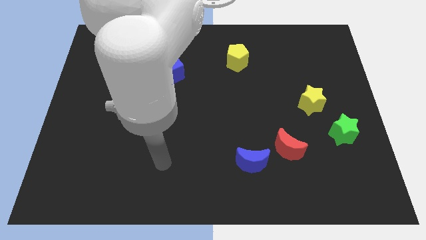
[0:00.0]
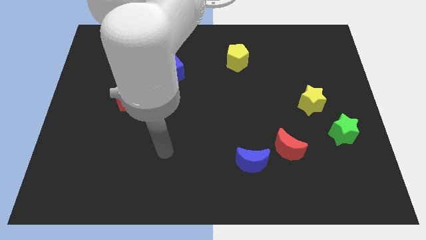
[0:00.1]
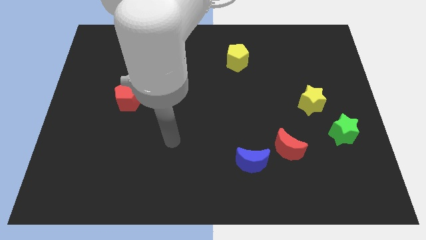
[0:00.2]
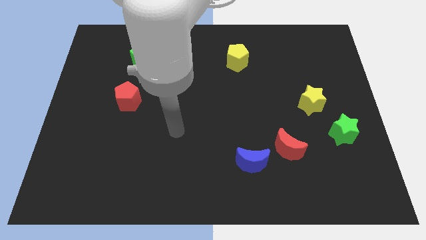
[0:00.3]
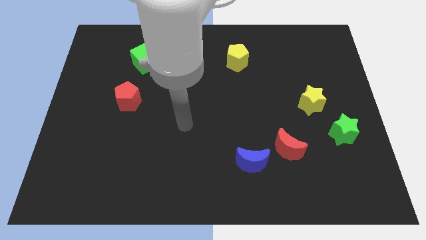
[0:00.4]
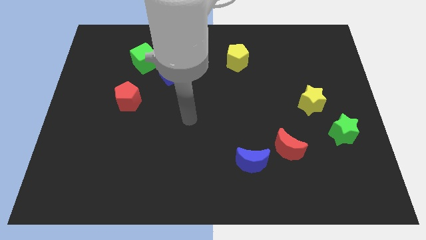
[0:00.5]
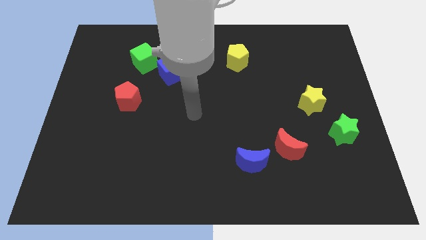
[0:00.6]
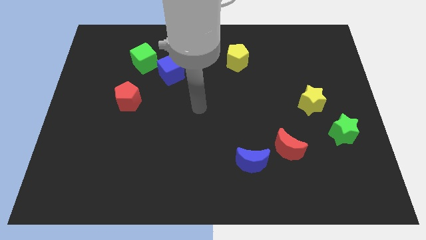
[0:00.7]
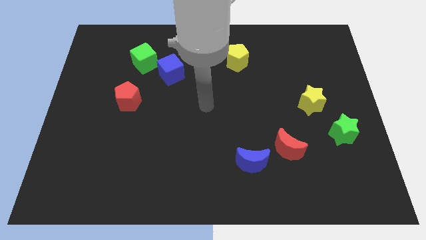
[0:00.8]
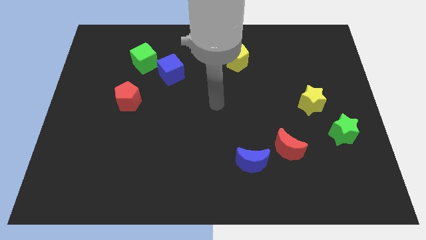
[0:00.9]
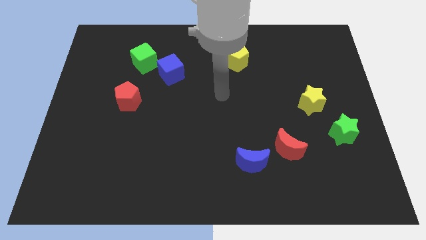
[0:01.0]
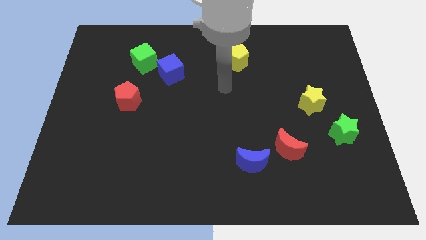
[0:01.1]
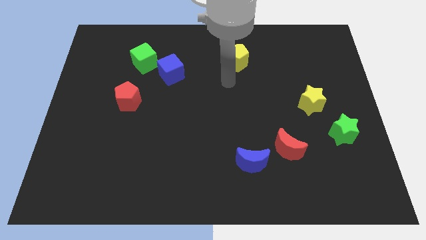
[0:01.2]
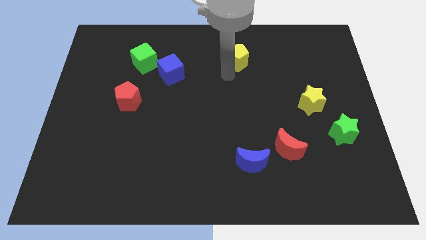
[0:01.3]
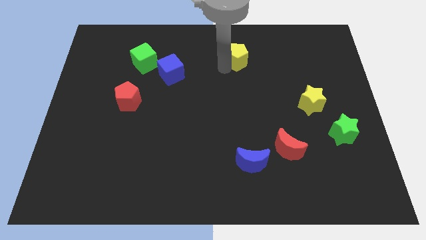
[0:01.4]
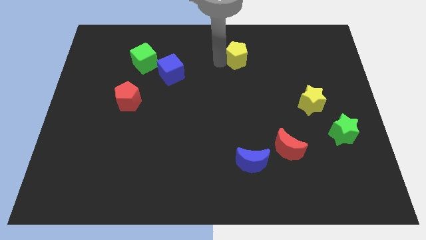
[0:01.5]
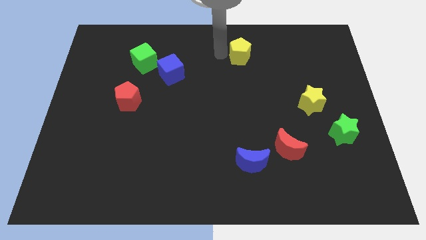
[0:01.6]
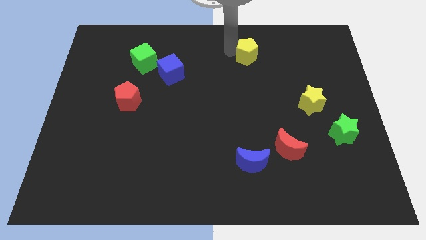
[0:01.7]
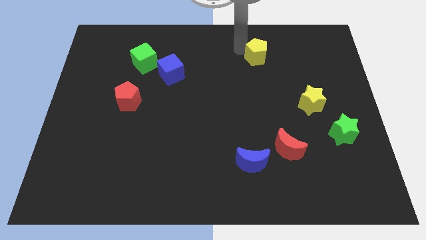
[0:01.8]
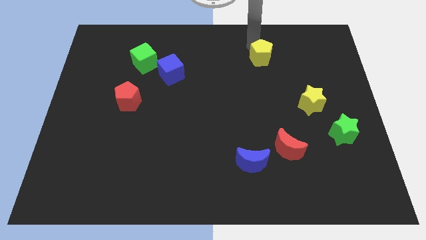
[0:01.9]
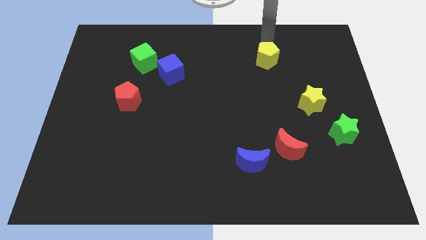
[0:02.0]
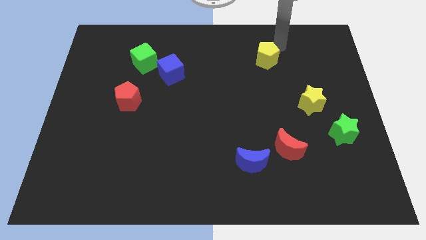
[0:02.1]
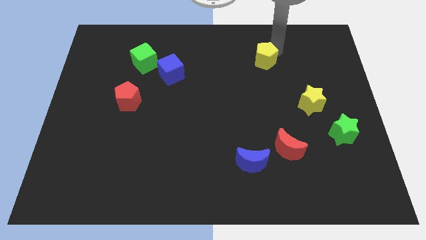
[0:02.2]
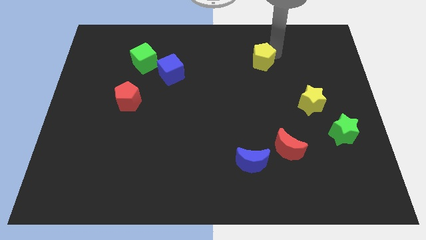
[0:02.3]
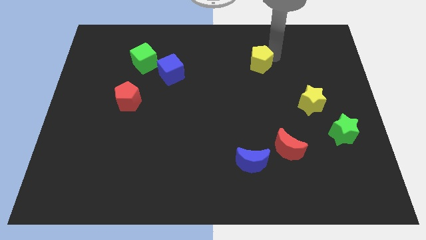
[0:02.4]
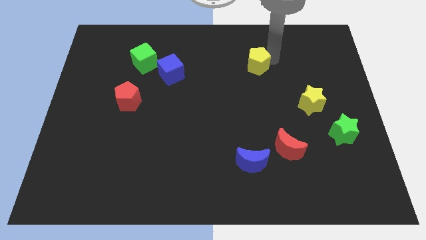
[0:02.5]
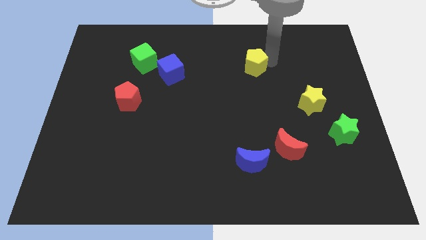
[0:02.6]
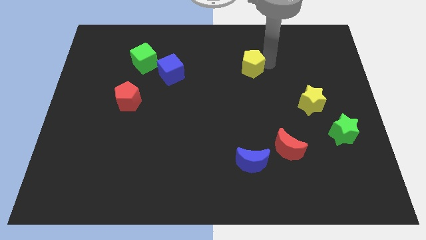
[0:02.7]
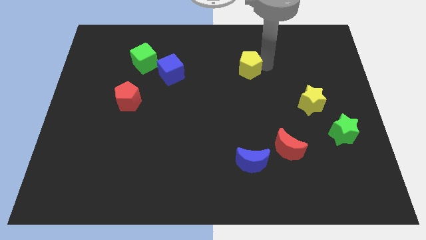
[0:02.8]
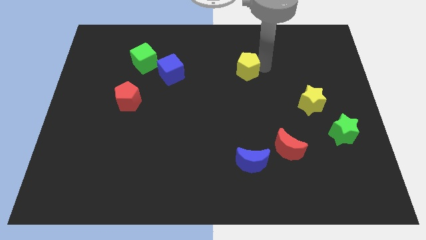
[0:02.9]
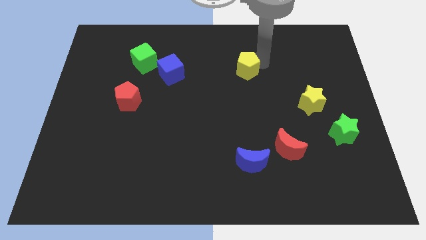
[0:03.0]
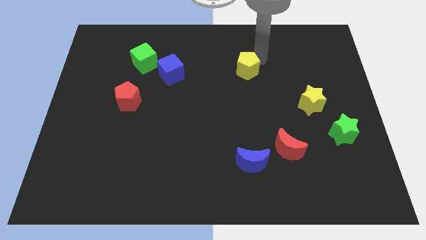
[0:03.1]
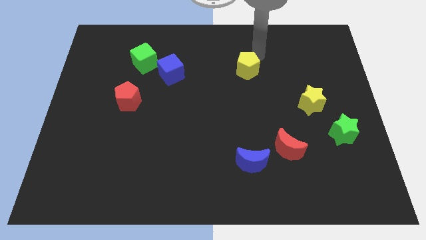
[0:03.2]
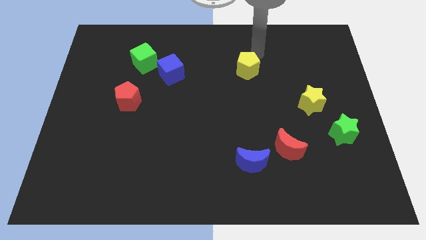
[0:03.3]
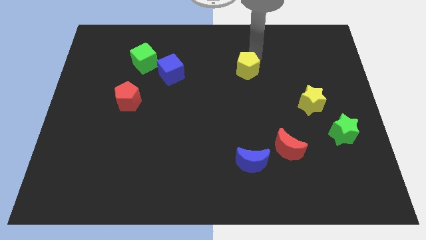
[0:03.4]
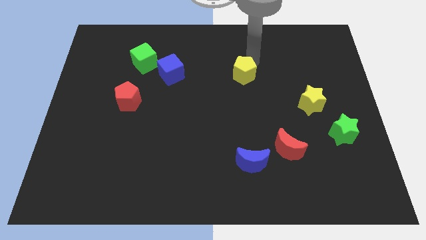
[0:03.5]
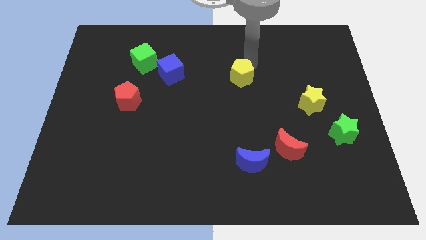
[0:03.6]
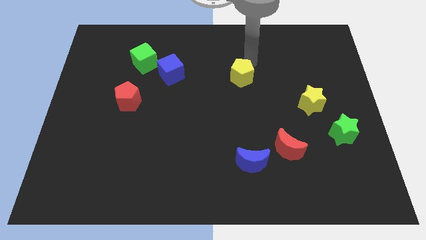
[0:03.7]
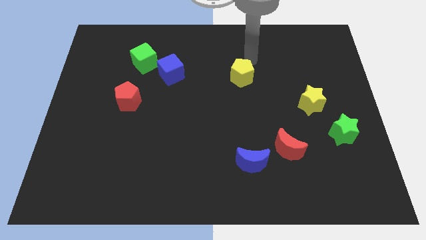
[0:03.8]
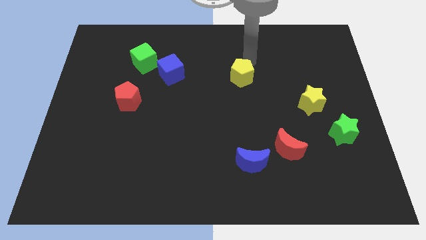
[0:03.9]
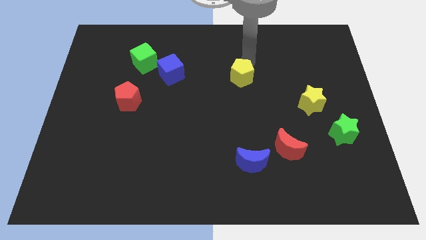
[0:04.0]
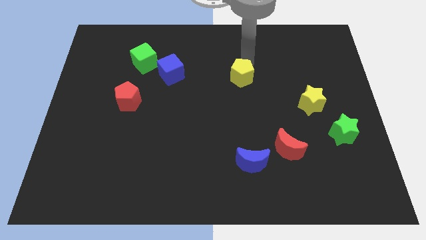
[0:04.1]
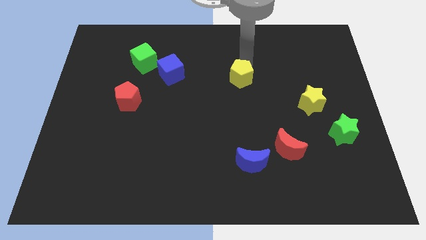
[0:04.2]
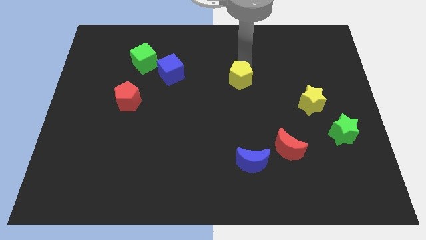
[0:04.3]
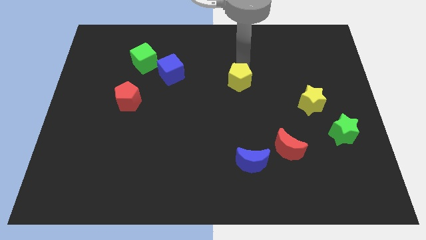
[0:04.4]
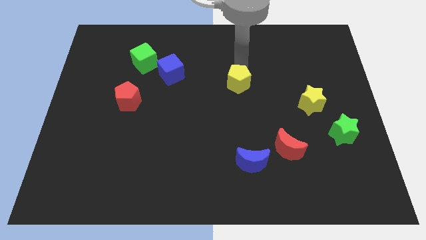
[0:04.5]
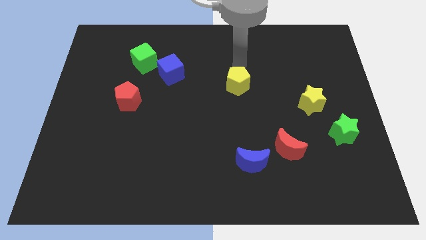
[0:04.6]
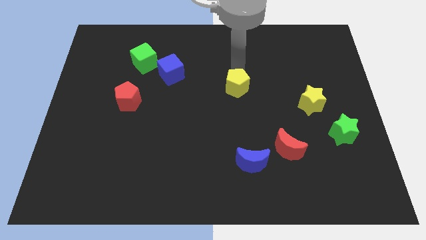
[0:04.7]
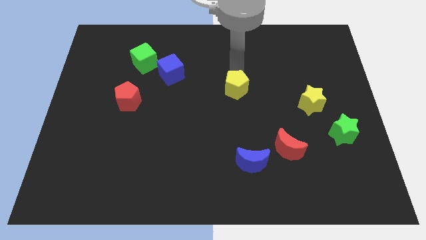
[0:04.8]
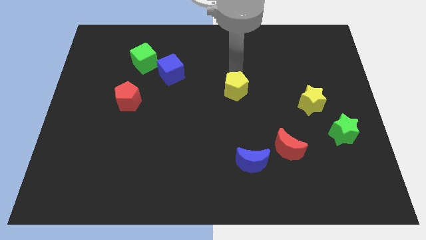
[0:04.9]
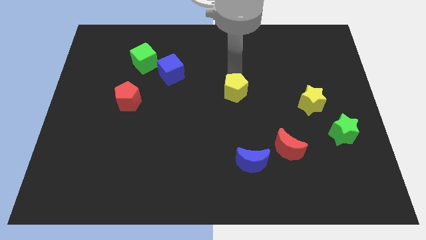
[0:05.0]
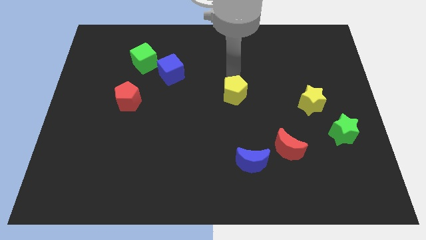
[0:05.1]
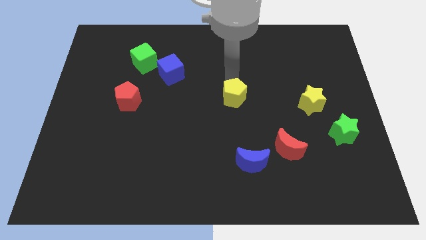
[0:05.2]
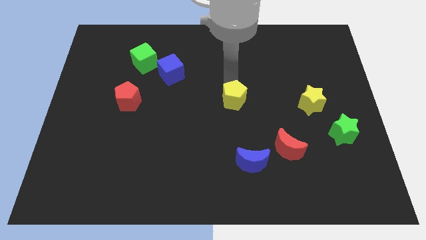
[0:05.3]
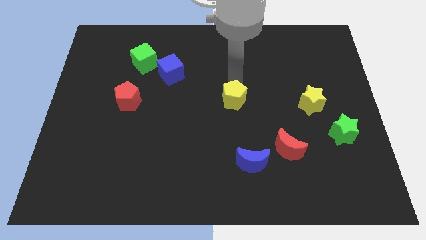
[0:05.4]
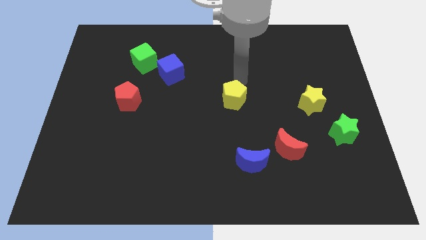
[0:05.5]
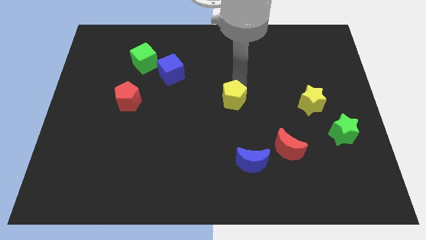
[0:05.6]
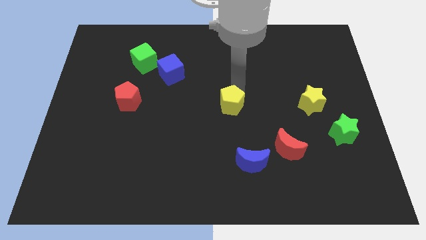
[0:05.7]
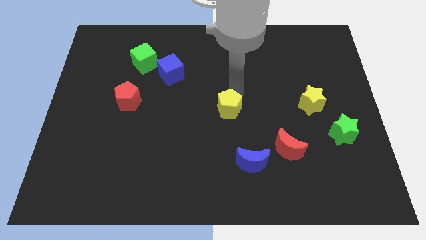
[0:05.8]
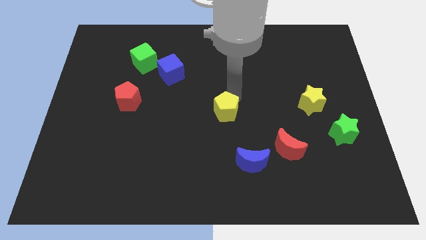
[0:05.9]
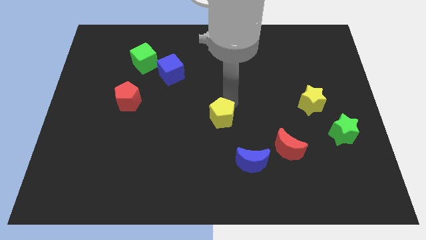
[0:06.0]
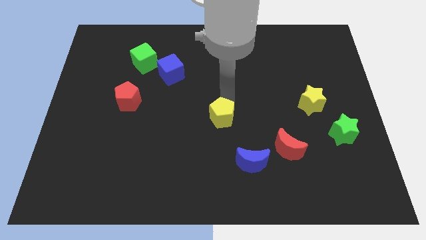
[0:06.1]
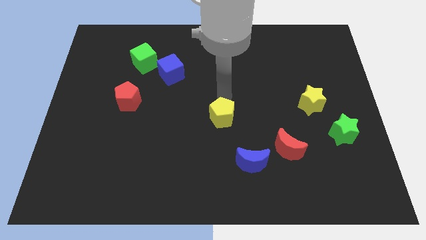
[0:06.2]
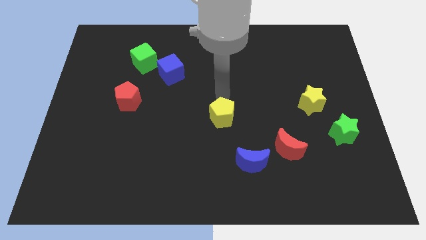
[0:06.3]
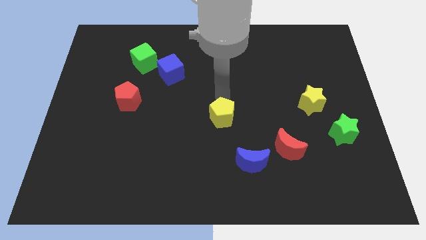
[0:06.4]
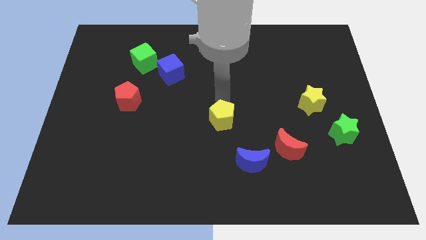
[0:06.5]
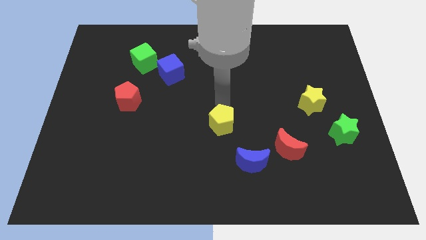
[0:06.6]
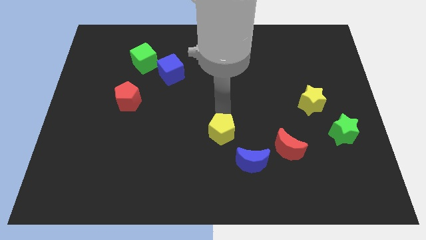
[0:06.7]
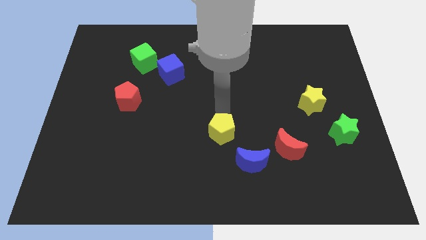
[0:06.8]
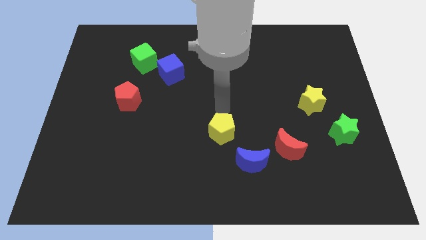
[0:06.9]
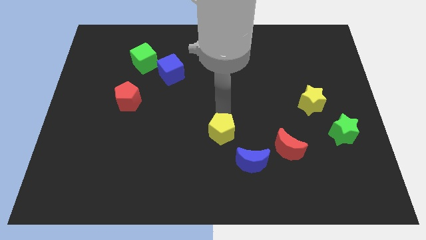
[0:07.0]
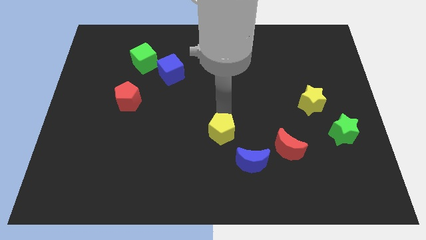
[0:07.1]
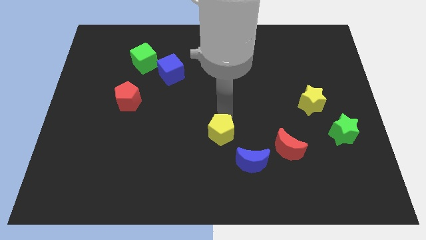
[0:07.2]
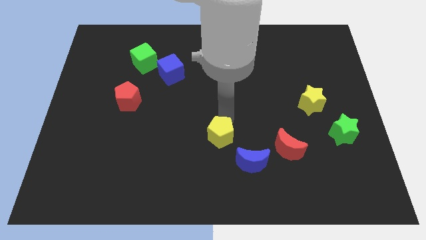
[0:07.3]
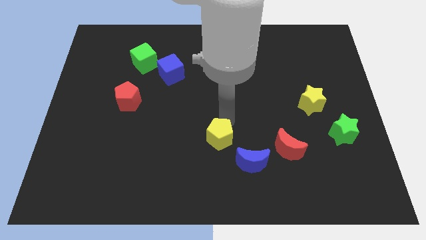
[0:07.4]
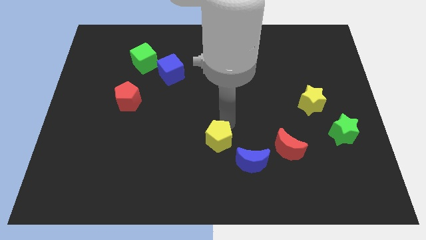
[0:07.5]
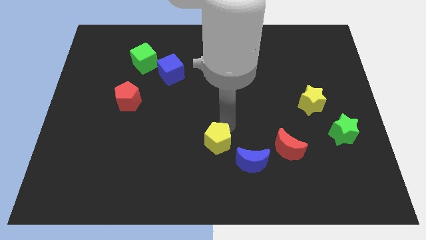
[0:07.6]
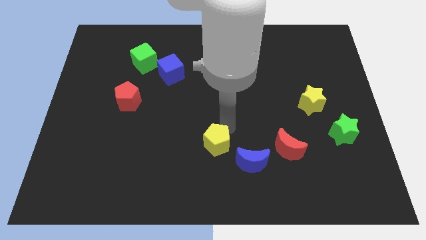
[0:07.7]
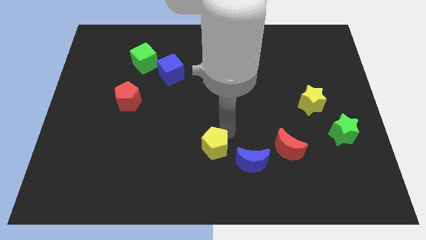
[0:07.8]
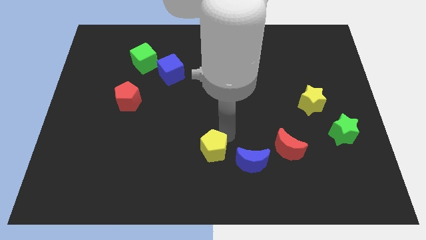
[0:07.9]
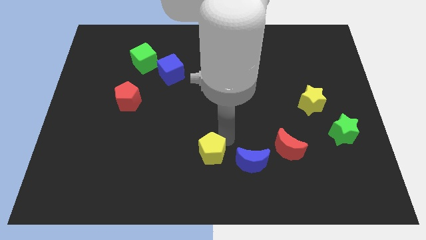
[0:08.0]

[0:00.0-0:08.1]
move the yellow pentagon to the bottom side
